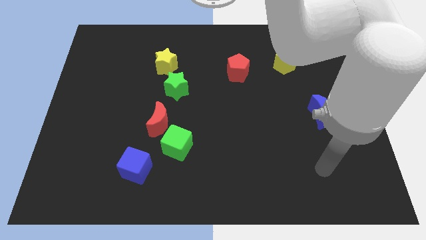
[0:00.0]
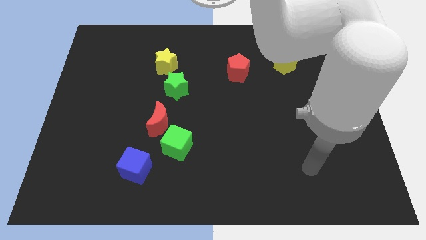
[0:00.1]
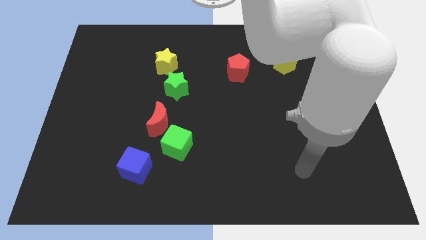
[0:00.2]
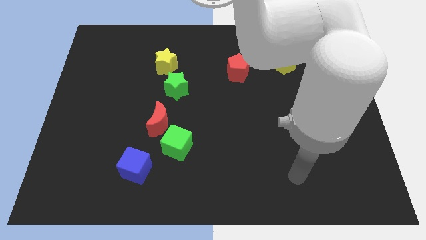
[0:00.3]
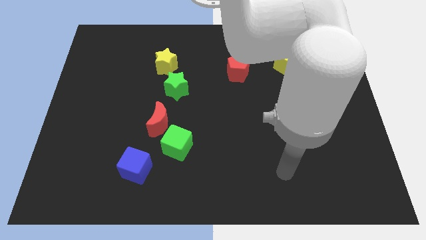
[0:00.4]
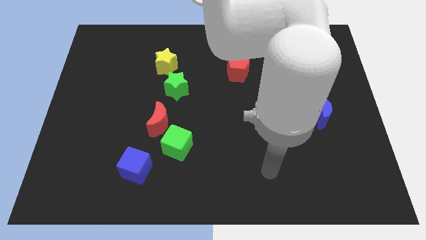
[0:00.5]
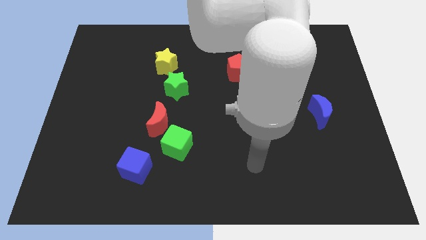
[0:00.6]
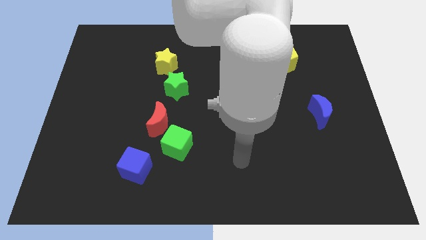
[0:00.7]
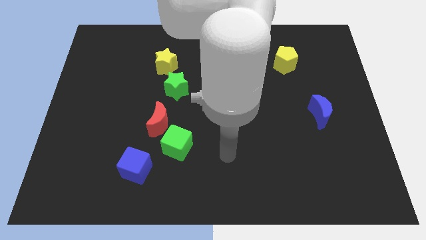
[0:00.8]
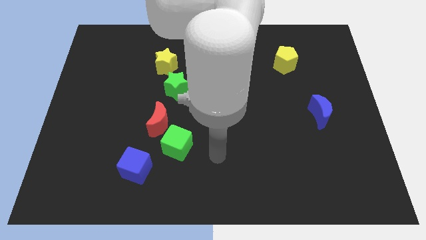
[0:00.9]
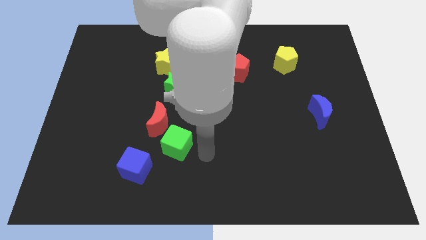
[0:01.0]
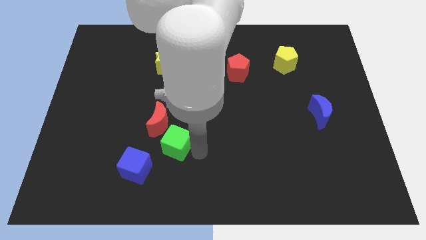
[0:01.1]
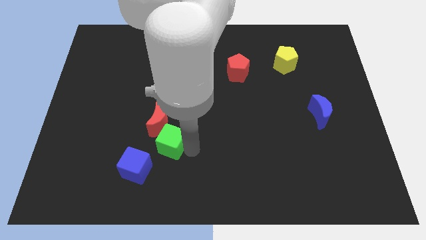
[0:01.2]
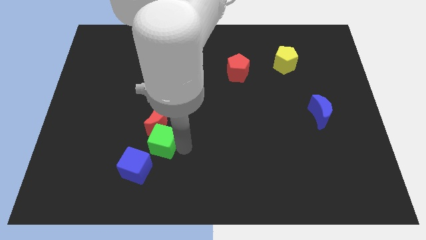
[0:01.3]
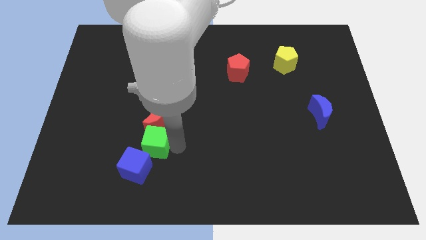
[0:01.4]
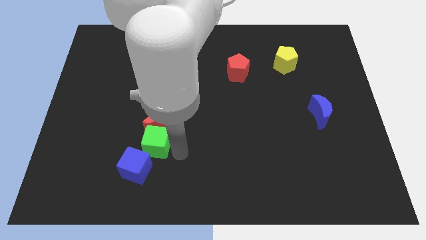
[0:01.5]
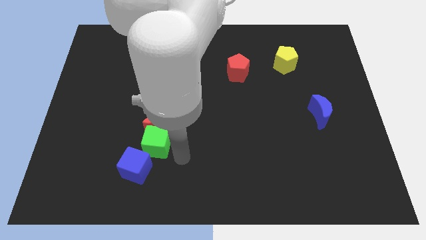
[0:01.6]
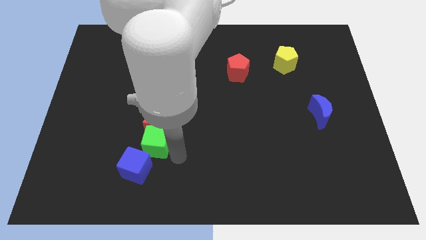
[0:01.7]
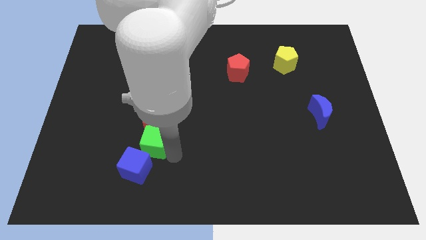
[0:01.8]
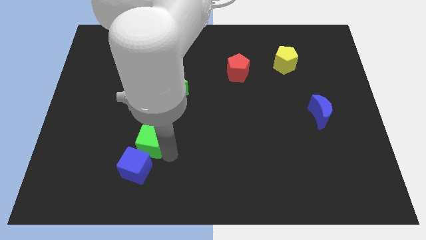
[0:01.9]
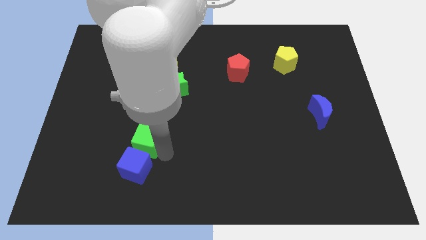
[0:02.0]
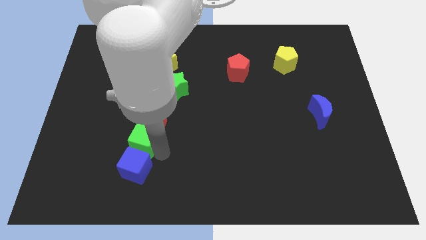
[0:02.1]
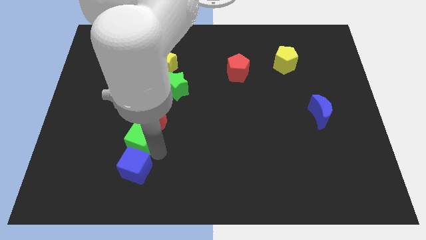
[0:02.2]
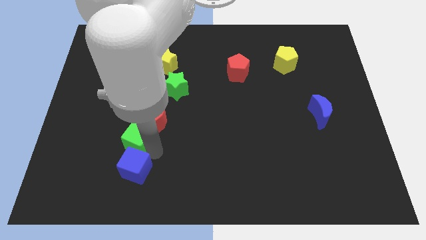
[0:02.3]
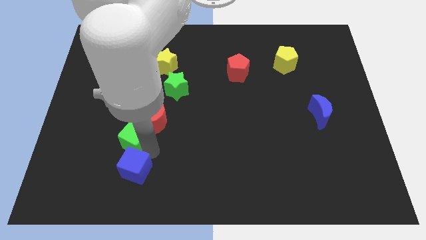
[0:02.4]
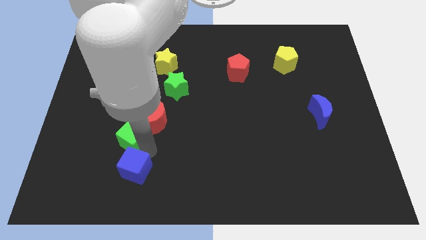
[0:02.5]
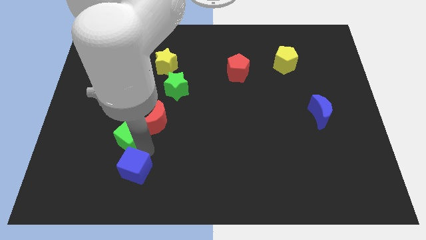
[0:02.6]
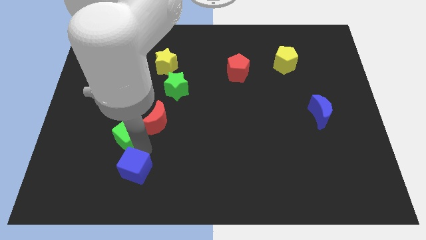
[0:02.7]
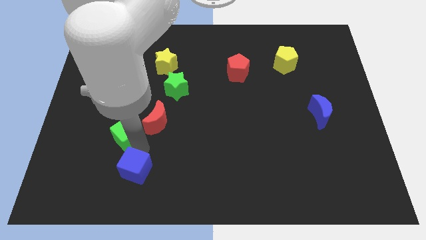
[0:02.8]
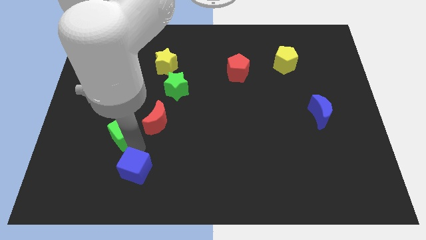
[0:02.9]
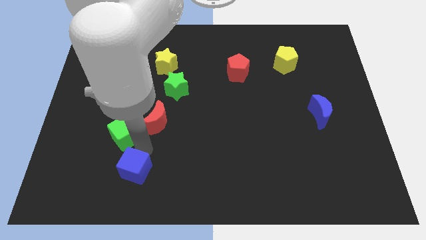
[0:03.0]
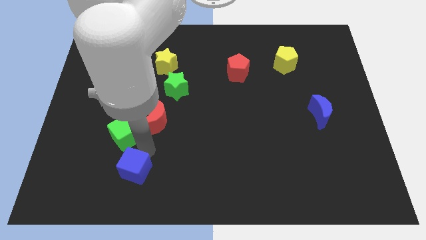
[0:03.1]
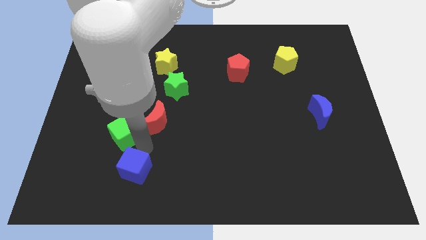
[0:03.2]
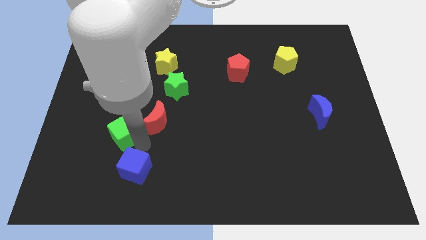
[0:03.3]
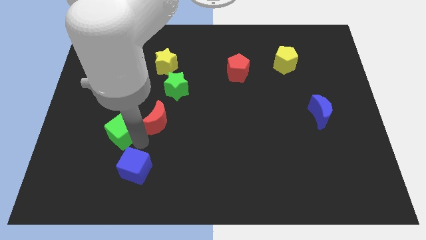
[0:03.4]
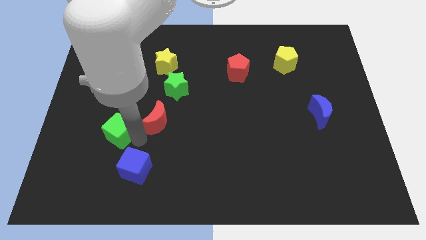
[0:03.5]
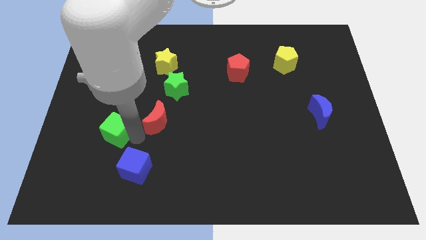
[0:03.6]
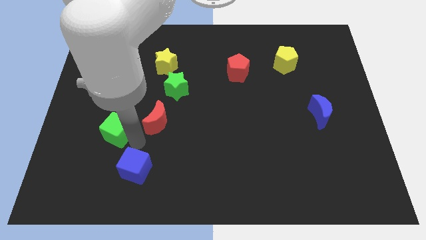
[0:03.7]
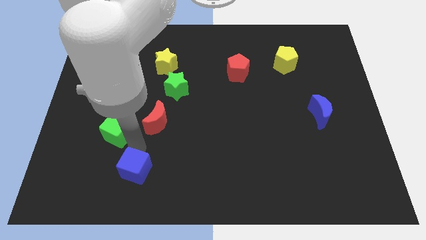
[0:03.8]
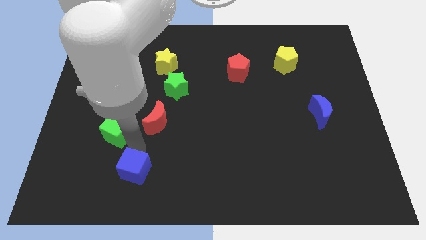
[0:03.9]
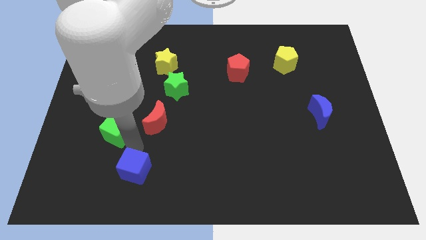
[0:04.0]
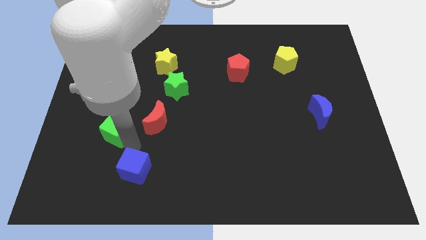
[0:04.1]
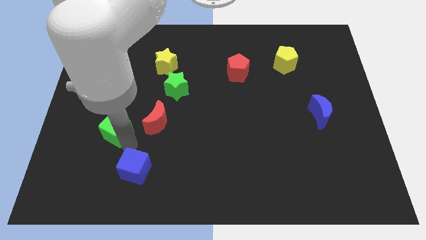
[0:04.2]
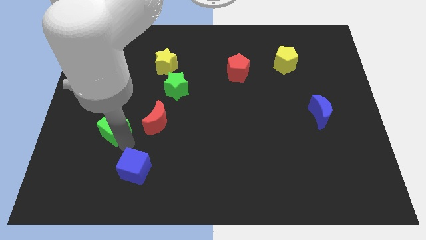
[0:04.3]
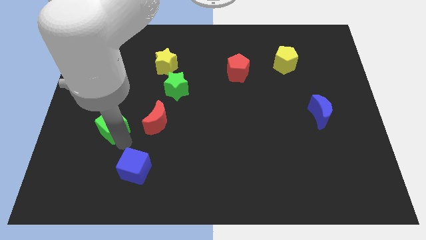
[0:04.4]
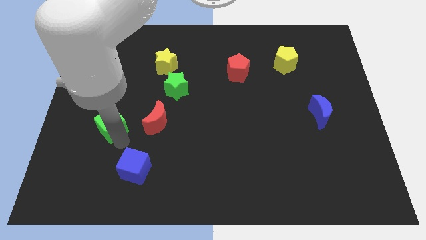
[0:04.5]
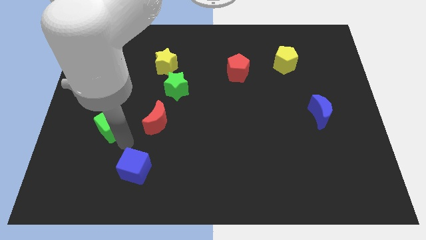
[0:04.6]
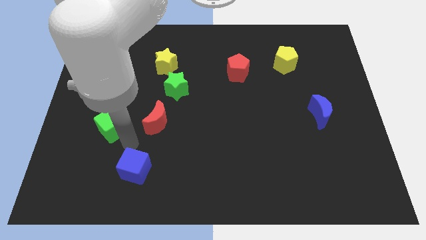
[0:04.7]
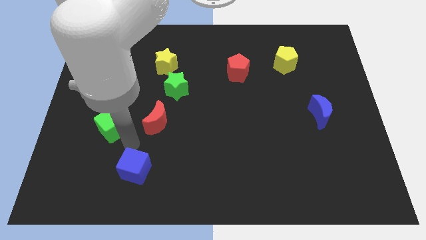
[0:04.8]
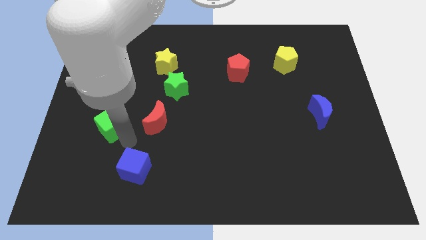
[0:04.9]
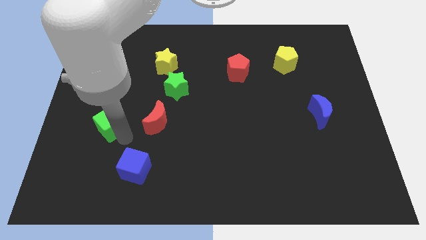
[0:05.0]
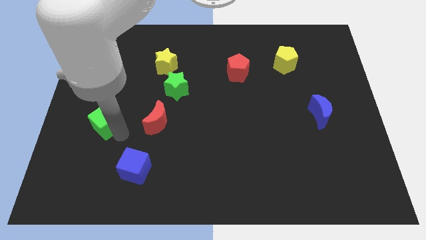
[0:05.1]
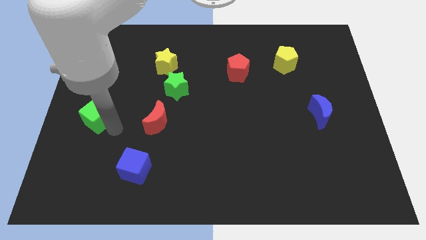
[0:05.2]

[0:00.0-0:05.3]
push the green cube to the left side

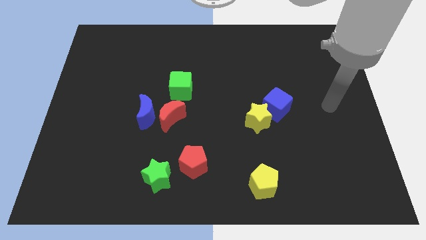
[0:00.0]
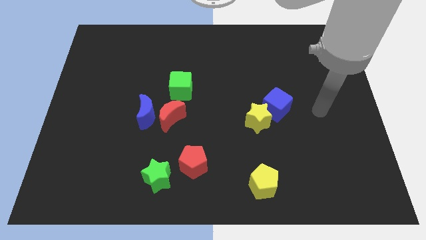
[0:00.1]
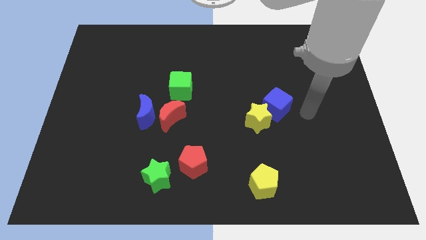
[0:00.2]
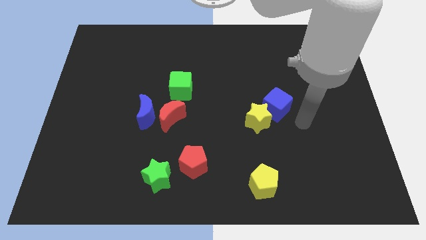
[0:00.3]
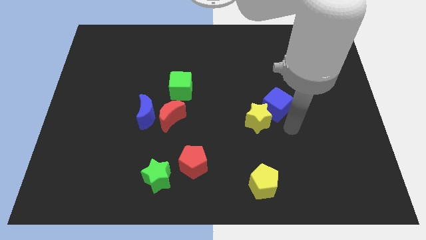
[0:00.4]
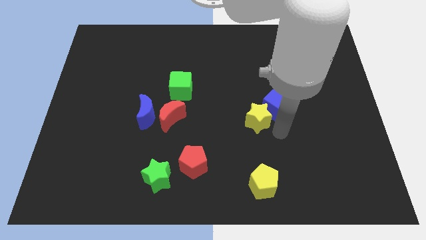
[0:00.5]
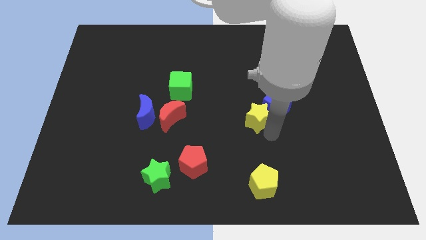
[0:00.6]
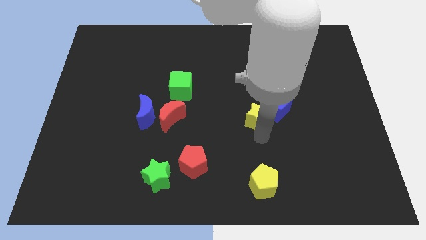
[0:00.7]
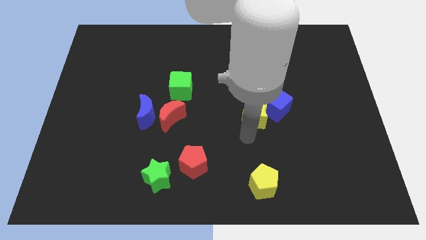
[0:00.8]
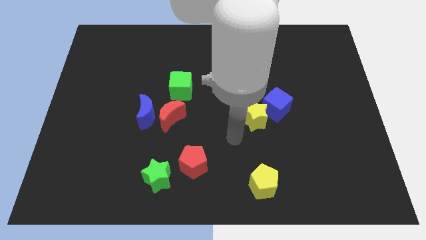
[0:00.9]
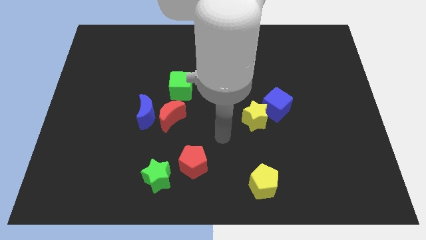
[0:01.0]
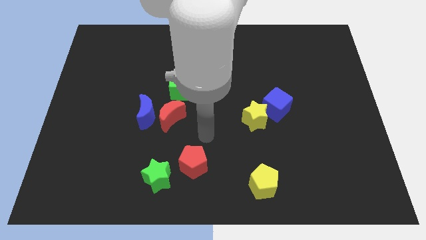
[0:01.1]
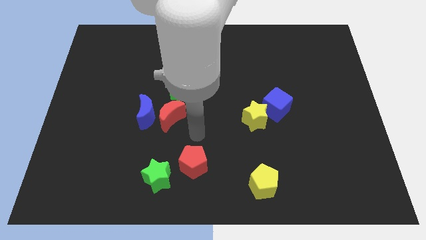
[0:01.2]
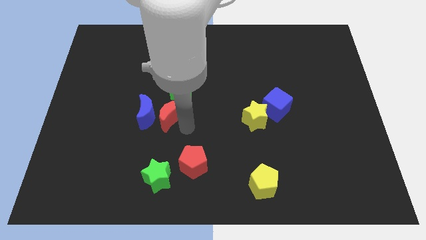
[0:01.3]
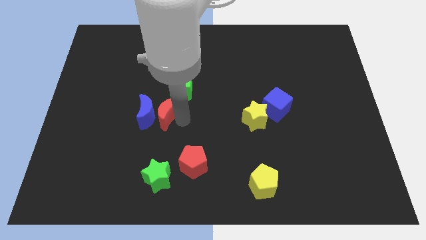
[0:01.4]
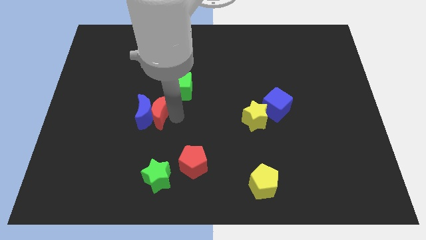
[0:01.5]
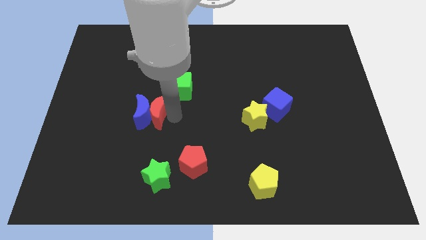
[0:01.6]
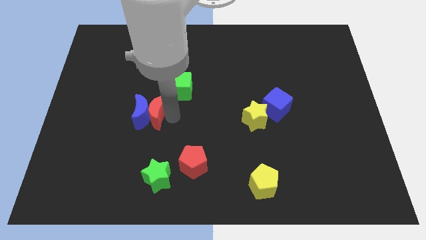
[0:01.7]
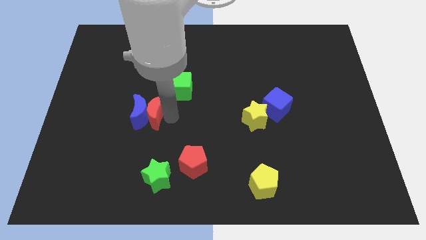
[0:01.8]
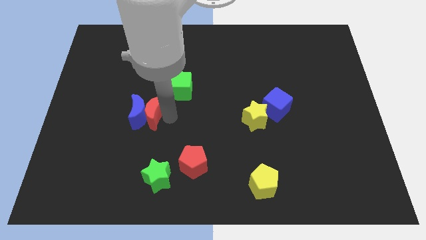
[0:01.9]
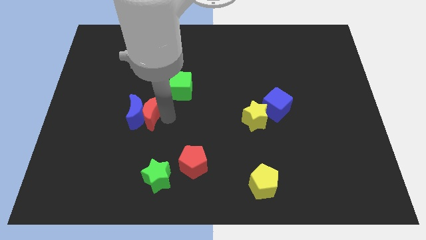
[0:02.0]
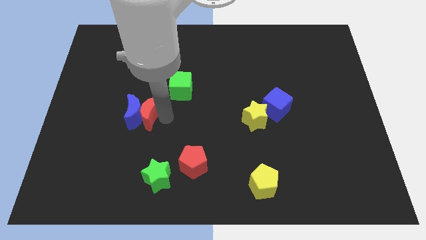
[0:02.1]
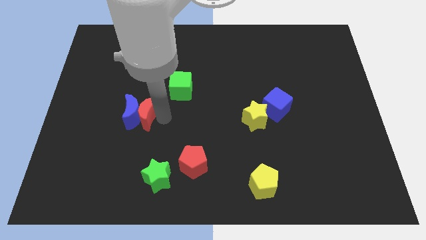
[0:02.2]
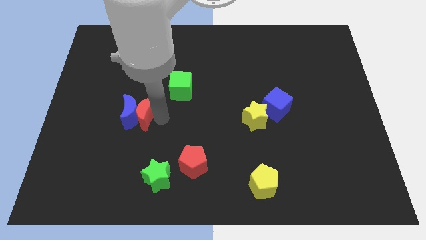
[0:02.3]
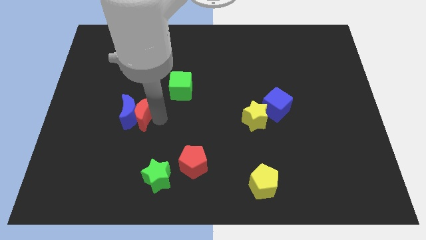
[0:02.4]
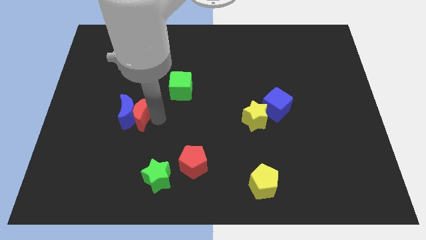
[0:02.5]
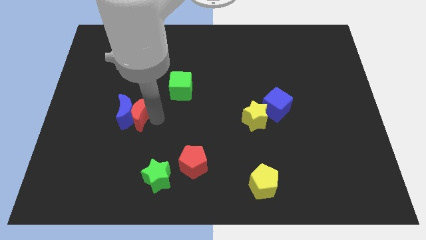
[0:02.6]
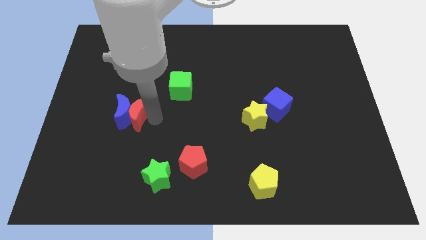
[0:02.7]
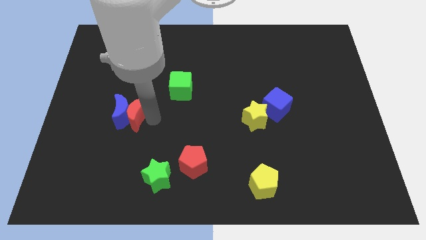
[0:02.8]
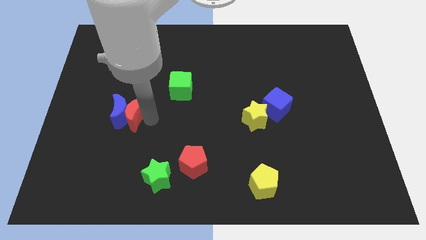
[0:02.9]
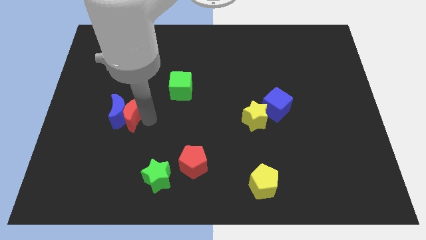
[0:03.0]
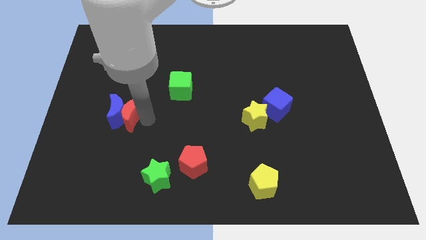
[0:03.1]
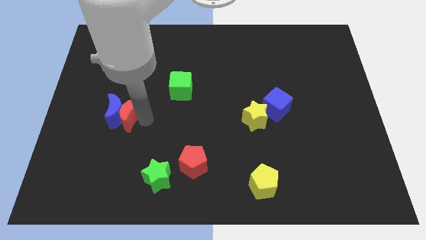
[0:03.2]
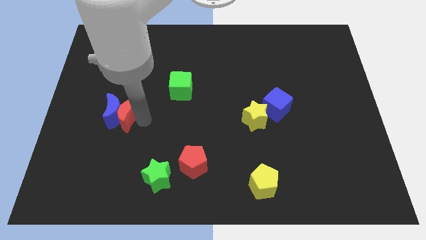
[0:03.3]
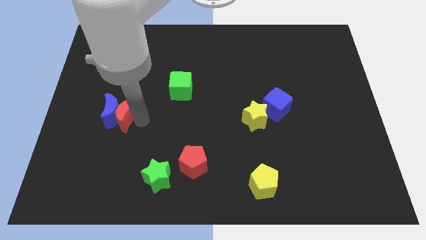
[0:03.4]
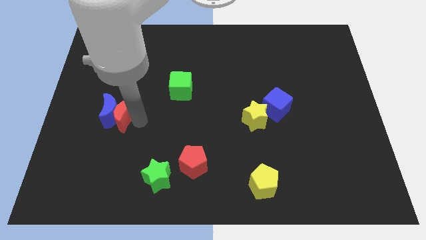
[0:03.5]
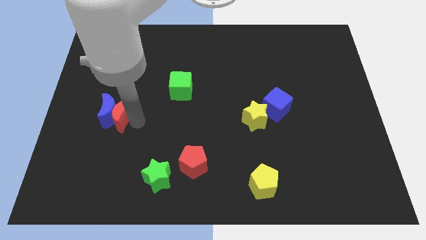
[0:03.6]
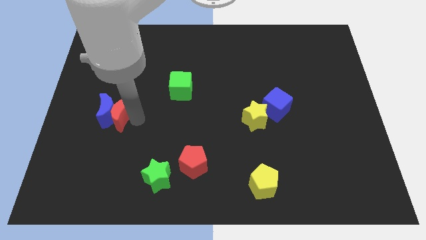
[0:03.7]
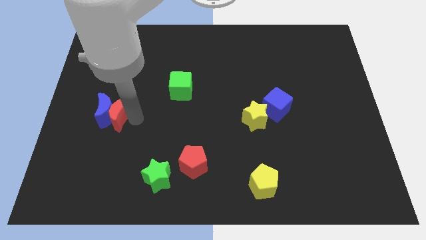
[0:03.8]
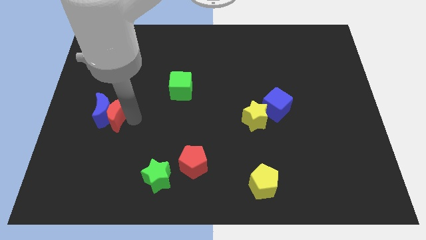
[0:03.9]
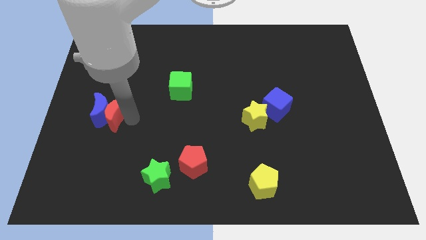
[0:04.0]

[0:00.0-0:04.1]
move the blue moon to the left side of the board
